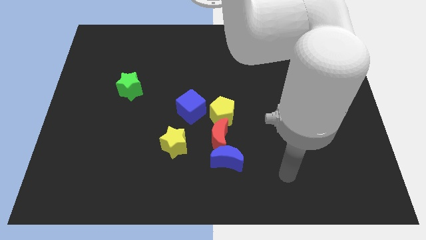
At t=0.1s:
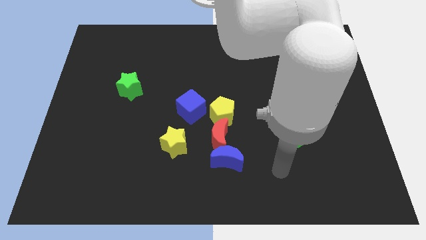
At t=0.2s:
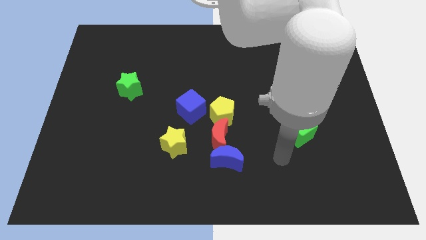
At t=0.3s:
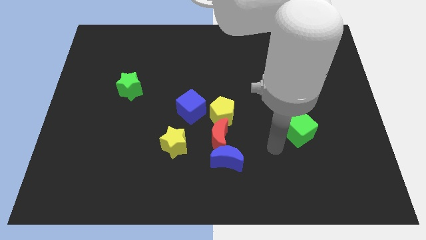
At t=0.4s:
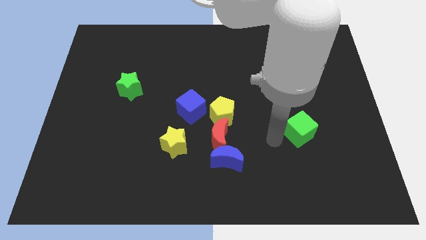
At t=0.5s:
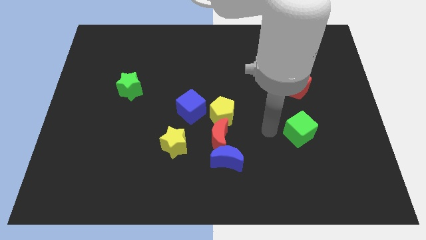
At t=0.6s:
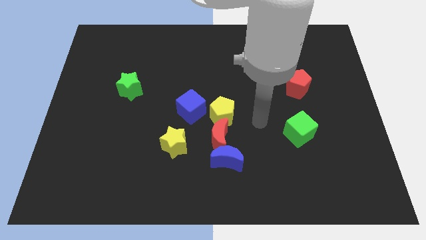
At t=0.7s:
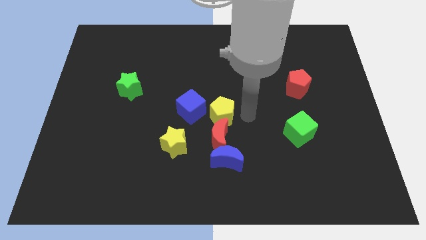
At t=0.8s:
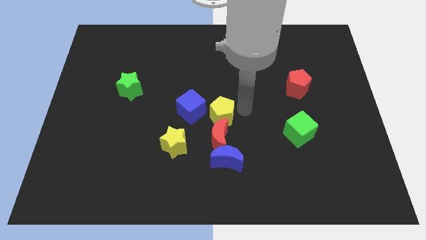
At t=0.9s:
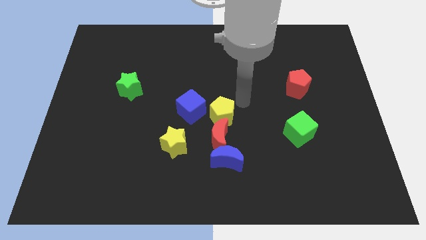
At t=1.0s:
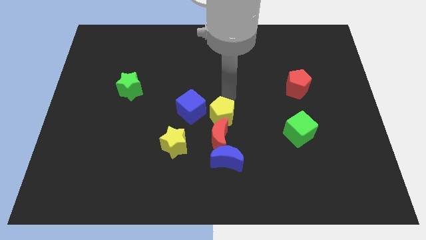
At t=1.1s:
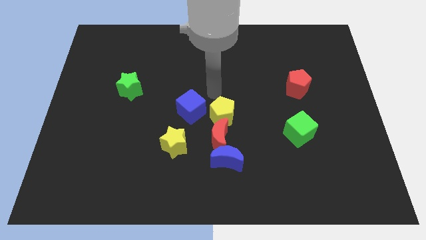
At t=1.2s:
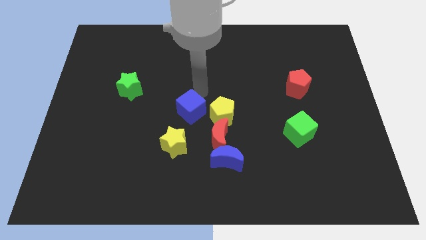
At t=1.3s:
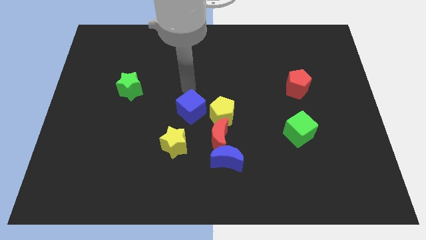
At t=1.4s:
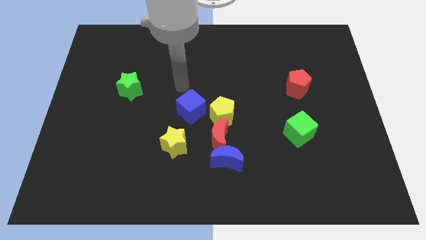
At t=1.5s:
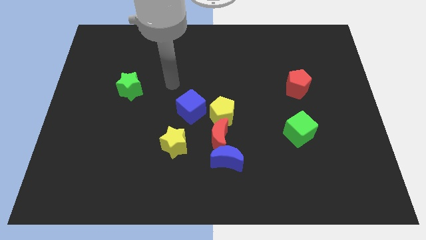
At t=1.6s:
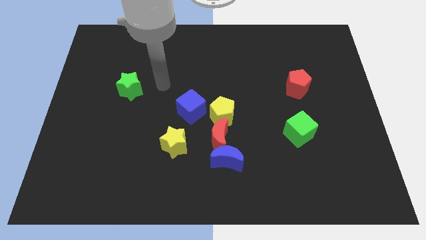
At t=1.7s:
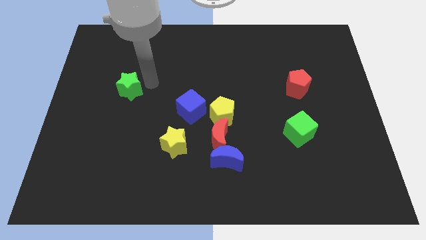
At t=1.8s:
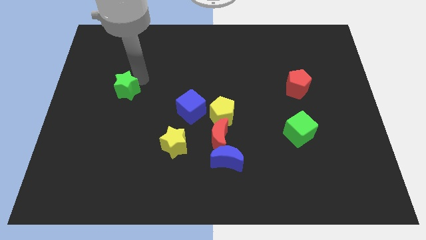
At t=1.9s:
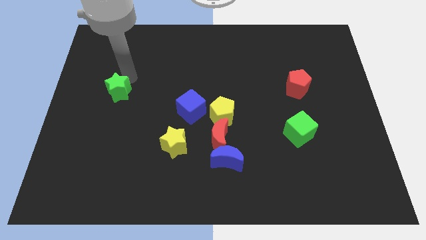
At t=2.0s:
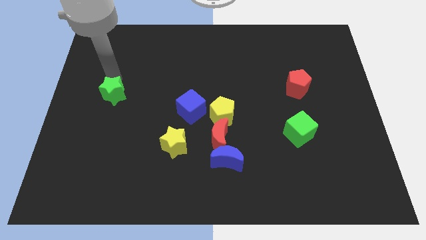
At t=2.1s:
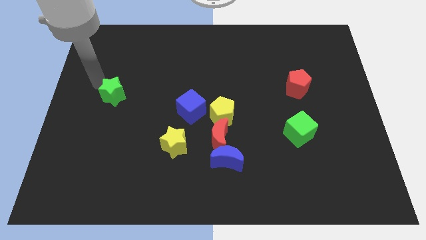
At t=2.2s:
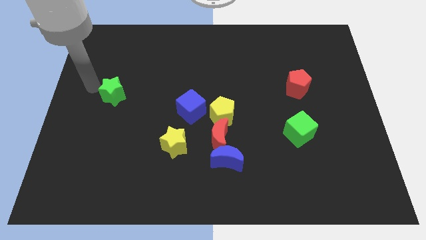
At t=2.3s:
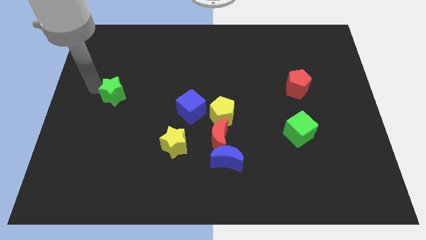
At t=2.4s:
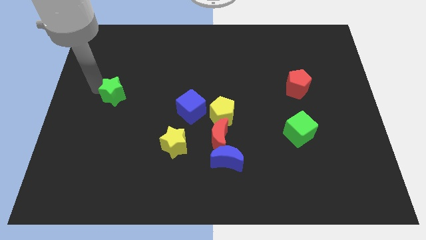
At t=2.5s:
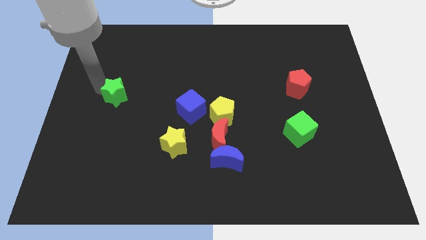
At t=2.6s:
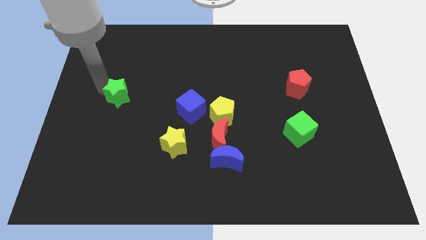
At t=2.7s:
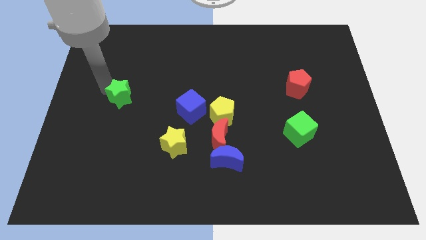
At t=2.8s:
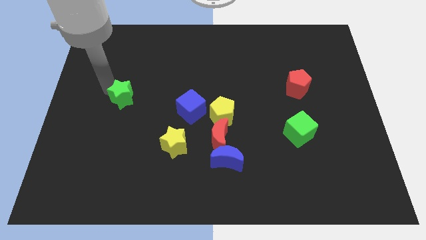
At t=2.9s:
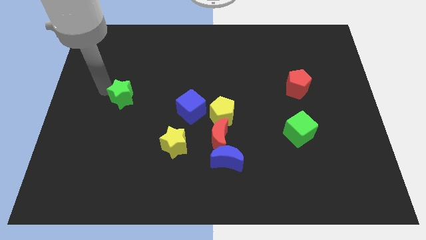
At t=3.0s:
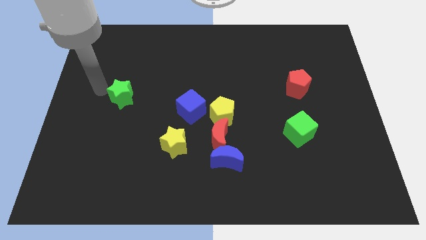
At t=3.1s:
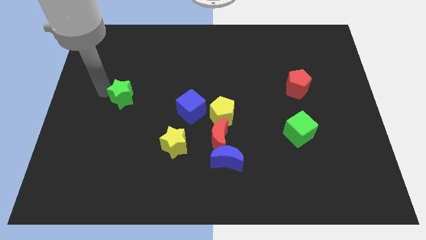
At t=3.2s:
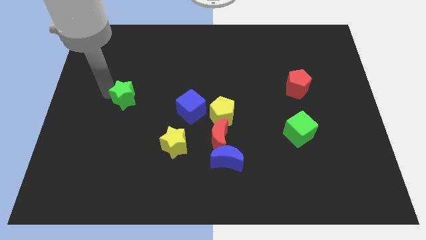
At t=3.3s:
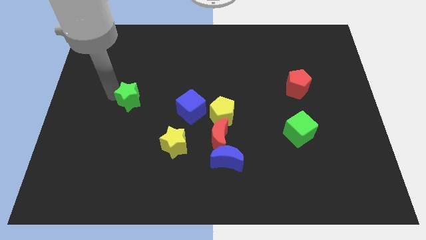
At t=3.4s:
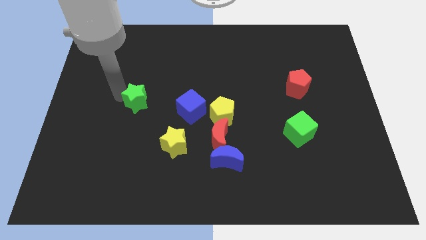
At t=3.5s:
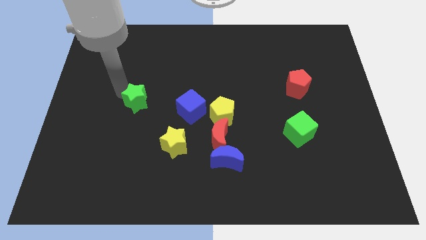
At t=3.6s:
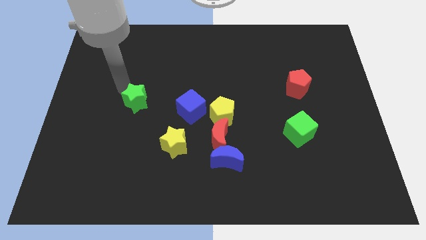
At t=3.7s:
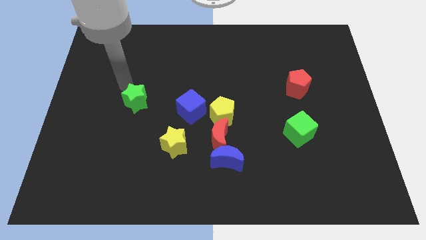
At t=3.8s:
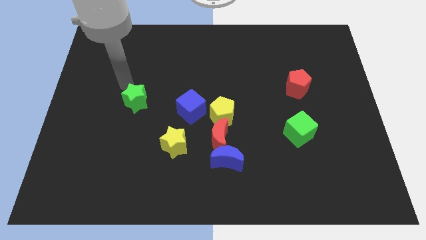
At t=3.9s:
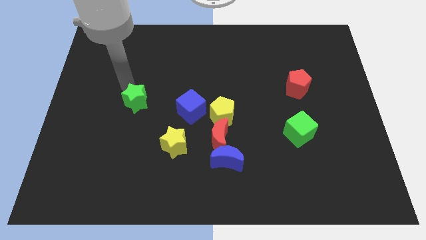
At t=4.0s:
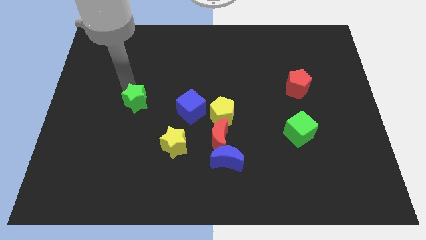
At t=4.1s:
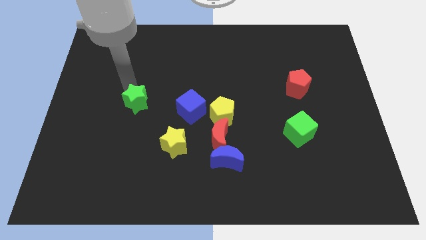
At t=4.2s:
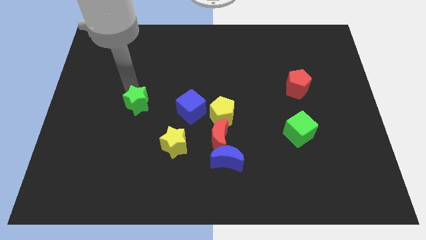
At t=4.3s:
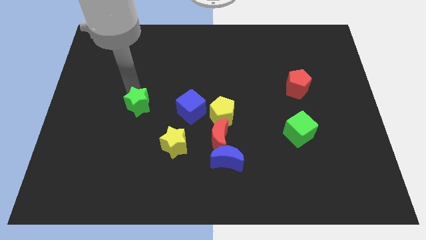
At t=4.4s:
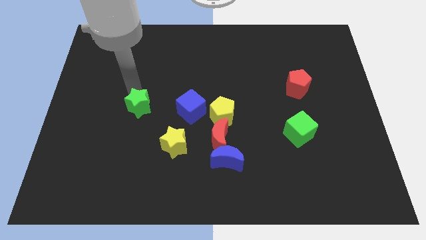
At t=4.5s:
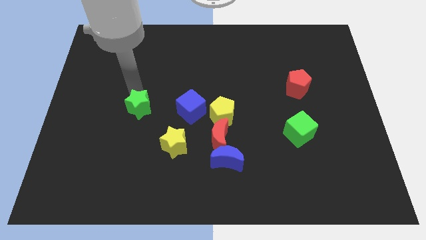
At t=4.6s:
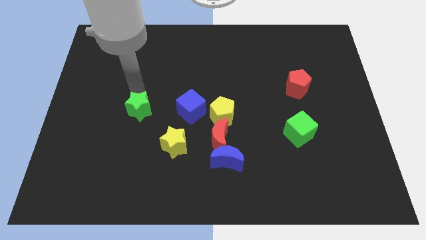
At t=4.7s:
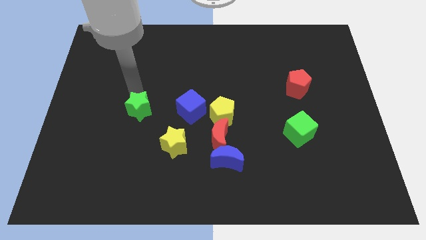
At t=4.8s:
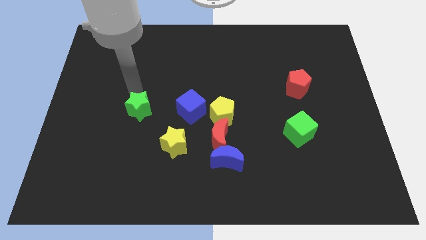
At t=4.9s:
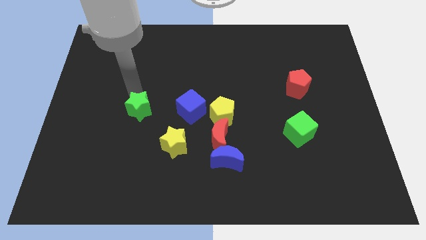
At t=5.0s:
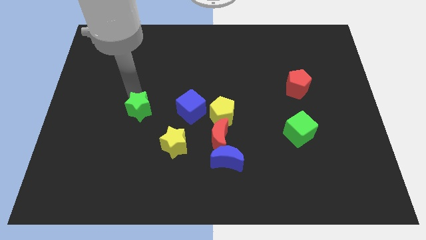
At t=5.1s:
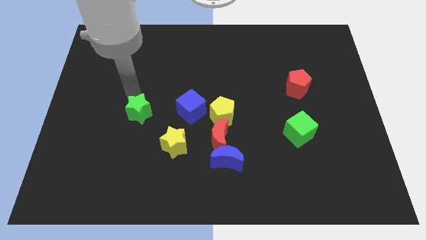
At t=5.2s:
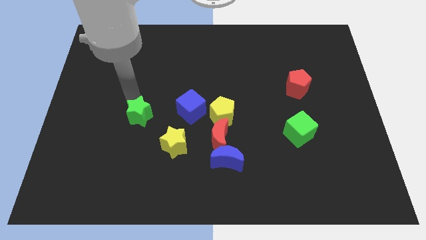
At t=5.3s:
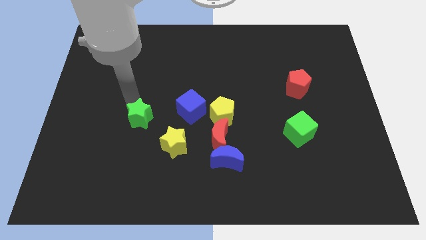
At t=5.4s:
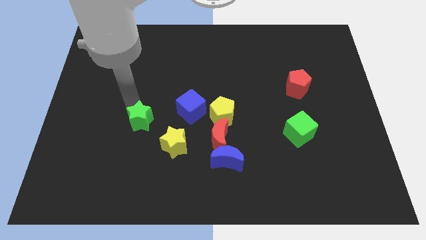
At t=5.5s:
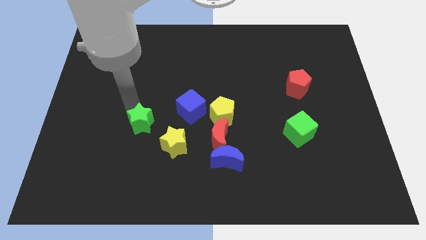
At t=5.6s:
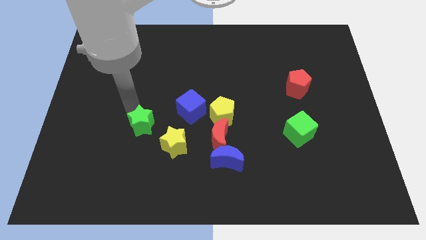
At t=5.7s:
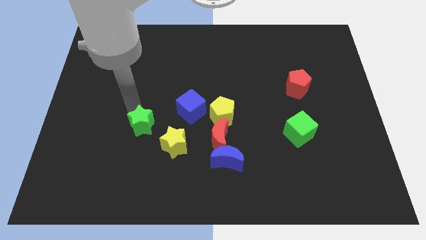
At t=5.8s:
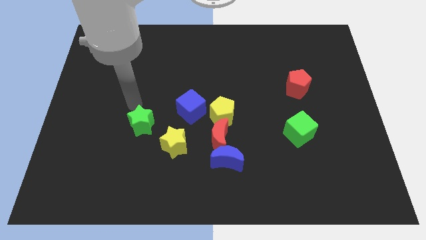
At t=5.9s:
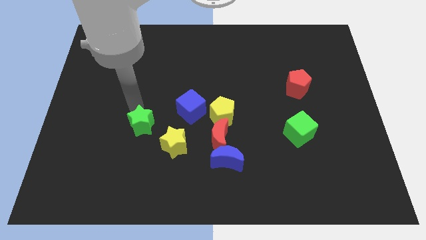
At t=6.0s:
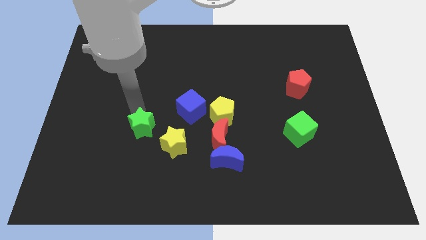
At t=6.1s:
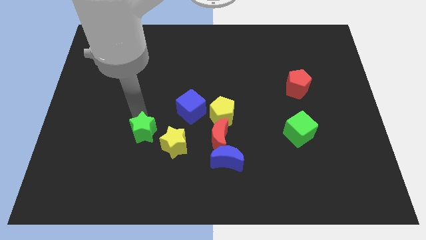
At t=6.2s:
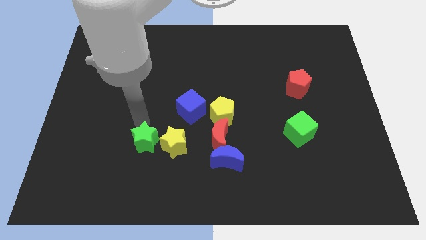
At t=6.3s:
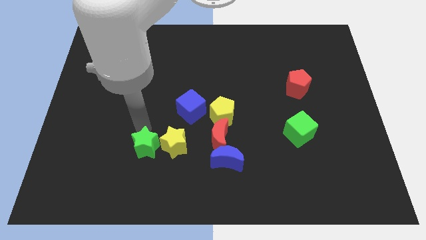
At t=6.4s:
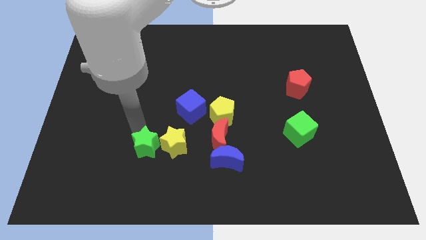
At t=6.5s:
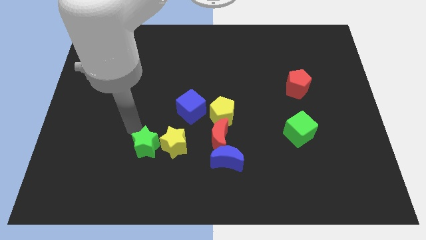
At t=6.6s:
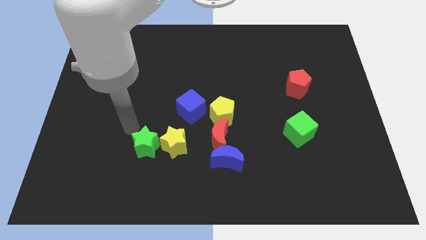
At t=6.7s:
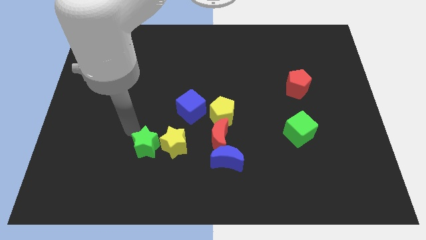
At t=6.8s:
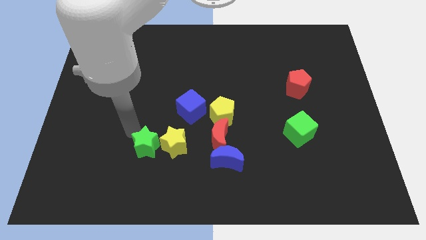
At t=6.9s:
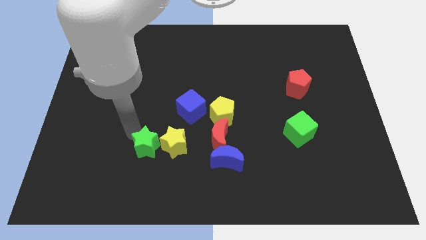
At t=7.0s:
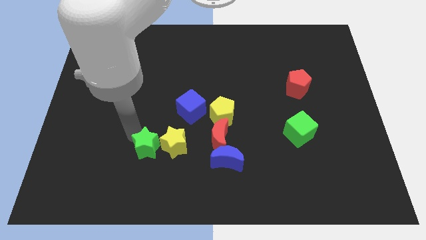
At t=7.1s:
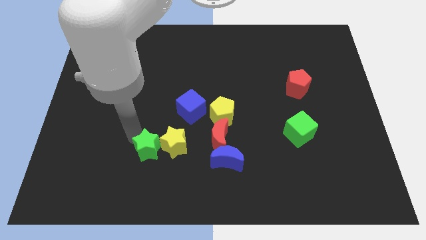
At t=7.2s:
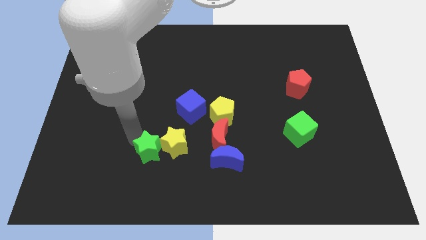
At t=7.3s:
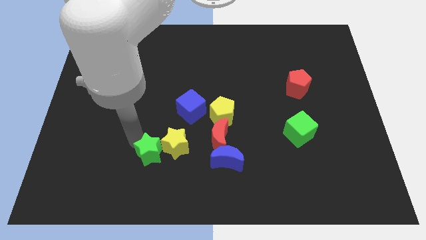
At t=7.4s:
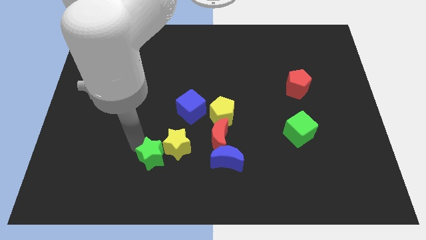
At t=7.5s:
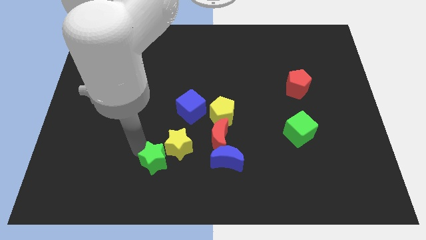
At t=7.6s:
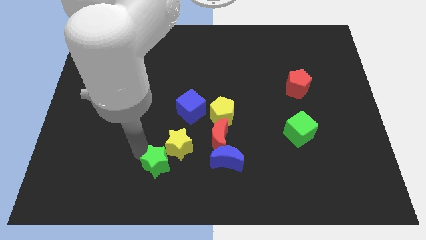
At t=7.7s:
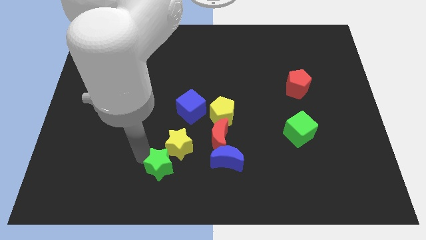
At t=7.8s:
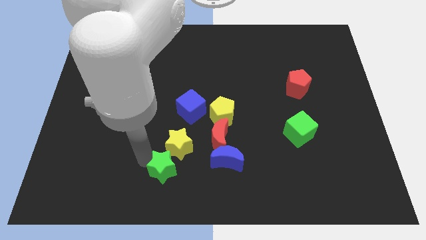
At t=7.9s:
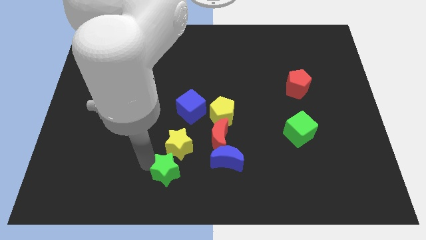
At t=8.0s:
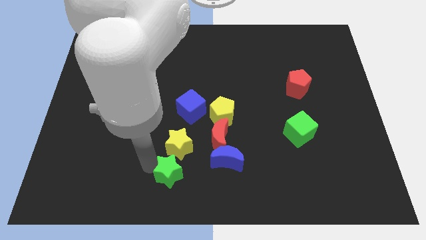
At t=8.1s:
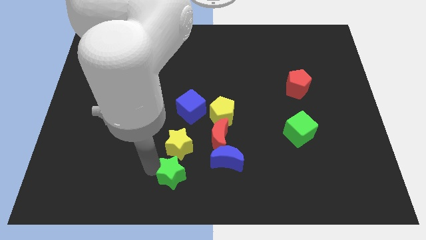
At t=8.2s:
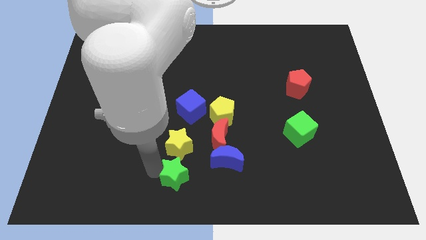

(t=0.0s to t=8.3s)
slide the green star to the bottom right side of the yellow star
